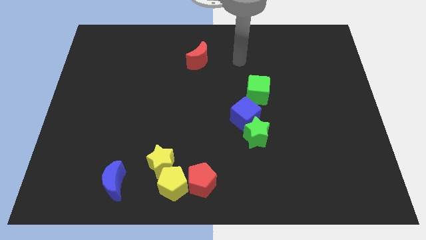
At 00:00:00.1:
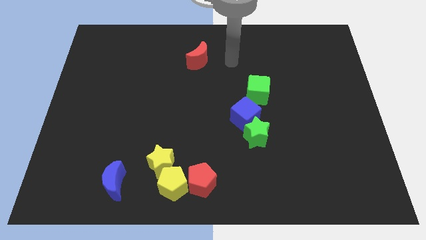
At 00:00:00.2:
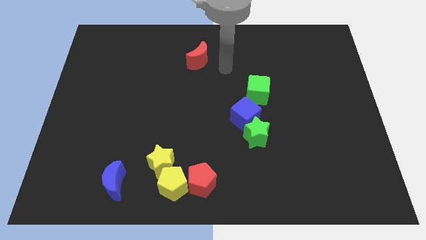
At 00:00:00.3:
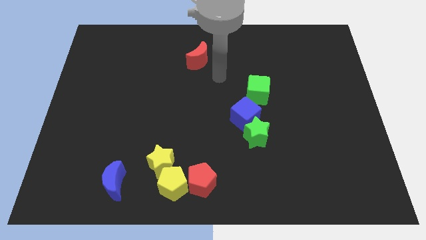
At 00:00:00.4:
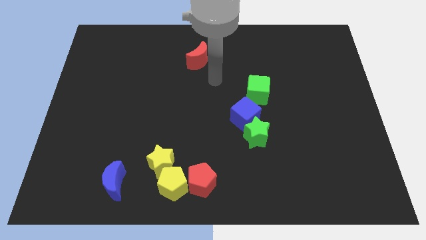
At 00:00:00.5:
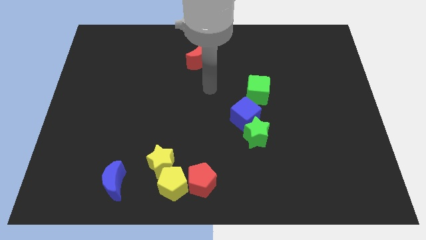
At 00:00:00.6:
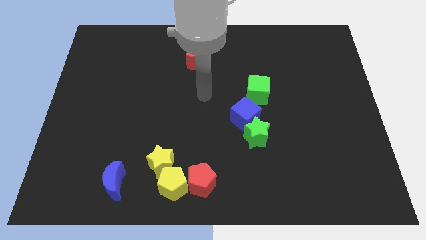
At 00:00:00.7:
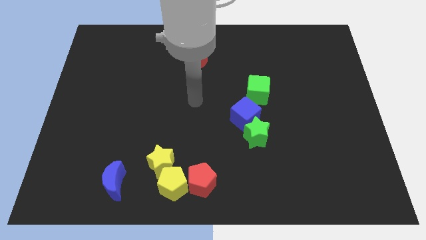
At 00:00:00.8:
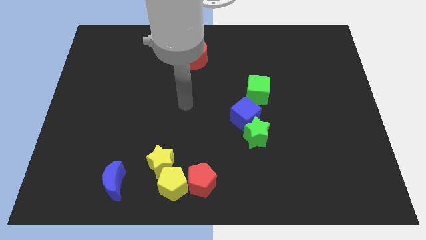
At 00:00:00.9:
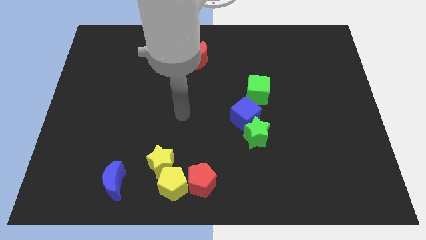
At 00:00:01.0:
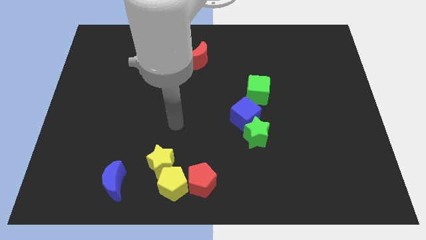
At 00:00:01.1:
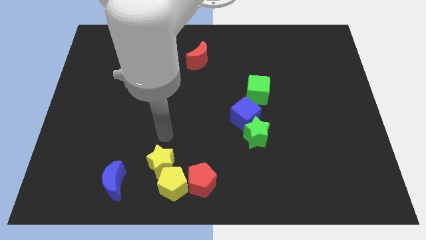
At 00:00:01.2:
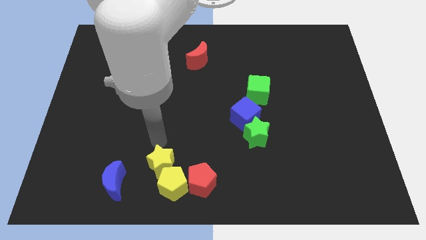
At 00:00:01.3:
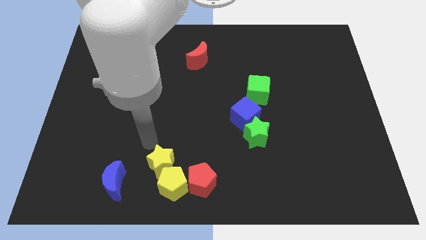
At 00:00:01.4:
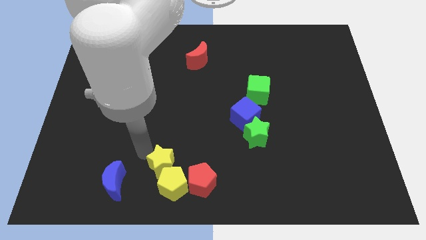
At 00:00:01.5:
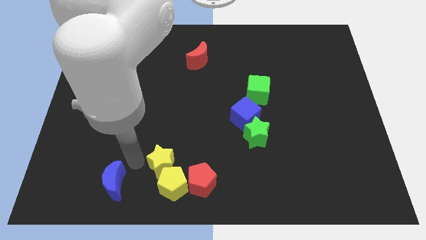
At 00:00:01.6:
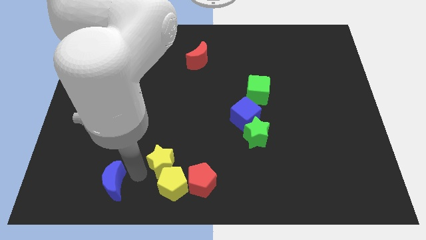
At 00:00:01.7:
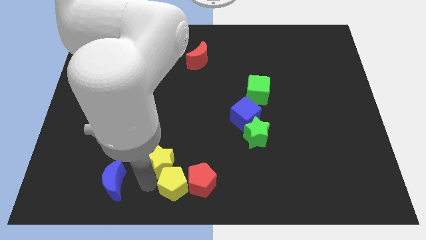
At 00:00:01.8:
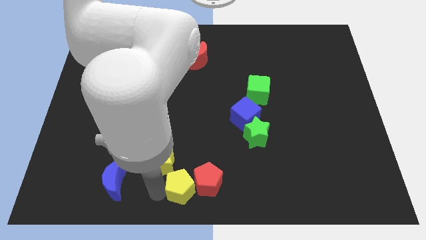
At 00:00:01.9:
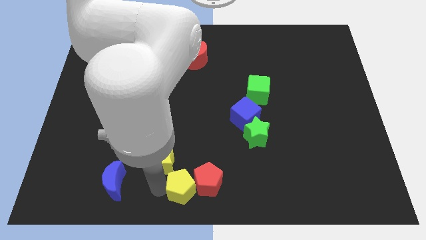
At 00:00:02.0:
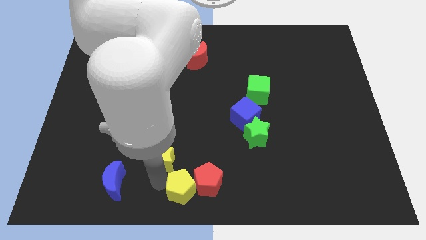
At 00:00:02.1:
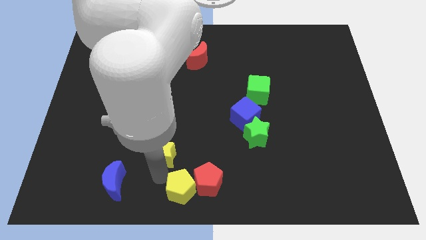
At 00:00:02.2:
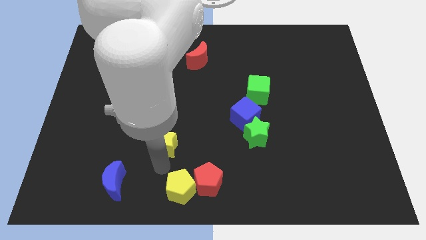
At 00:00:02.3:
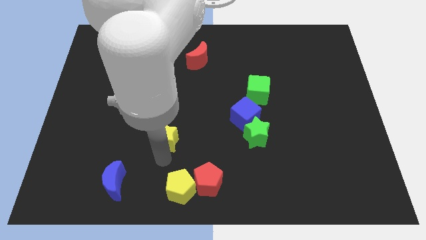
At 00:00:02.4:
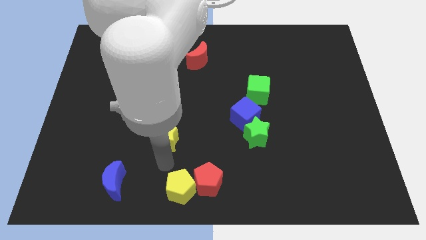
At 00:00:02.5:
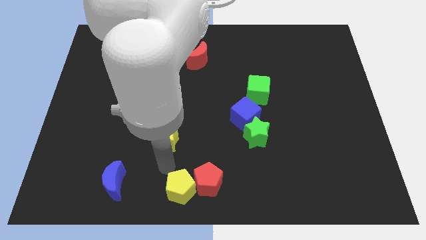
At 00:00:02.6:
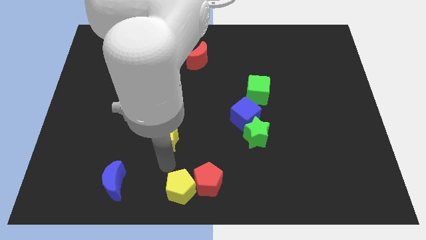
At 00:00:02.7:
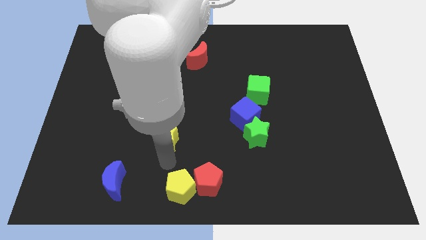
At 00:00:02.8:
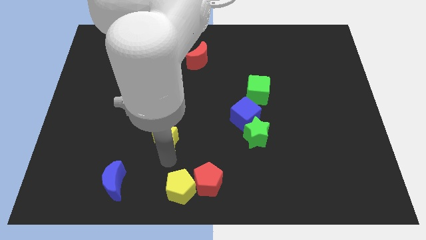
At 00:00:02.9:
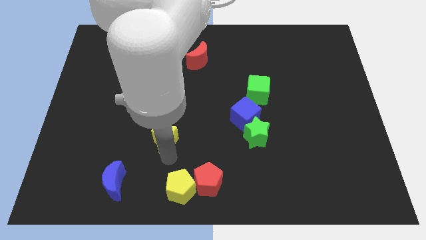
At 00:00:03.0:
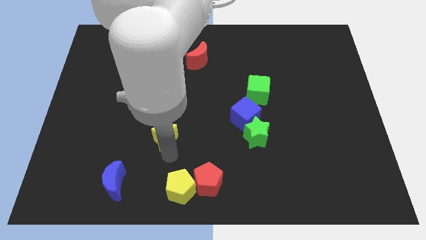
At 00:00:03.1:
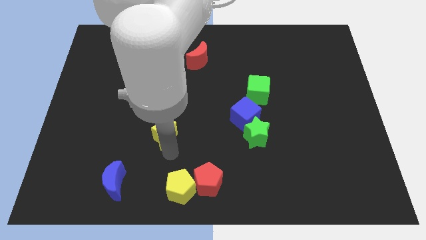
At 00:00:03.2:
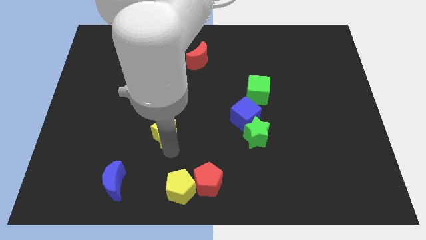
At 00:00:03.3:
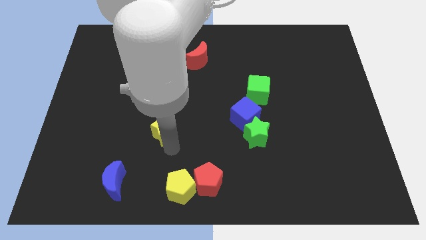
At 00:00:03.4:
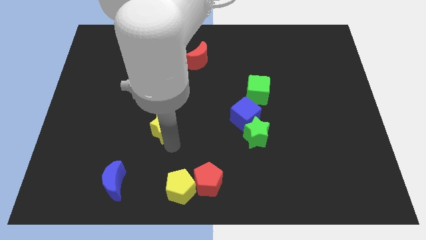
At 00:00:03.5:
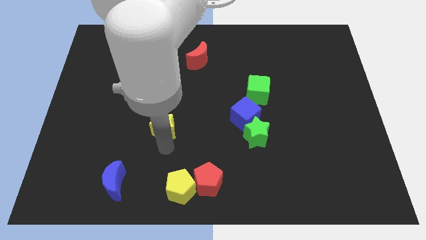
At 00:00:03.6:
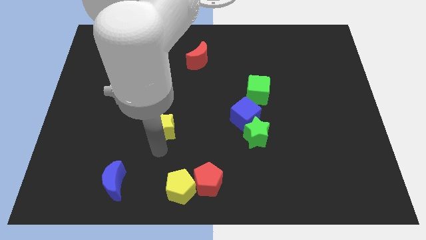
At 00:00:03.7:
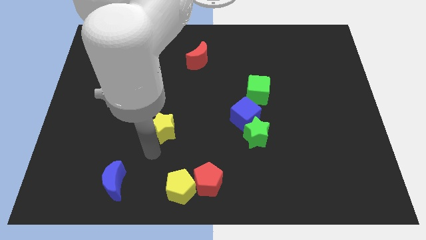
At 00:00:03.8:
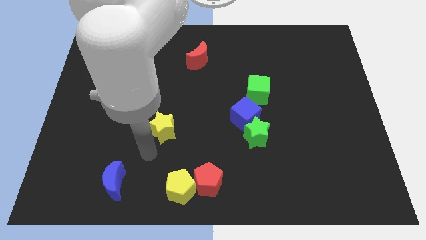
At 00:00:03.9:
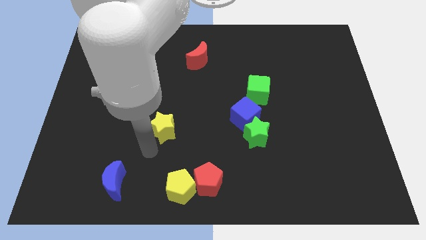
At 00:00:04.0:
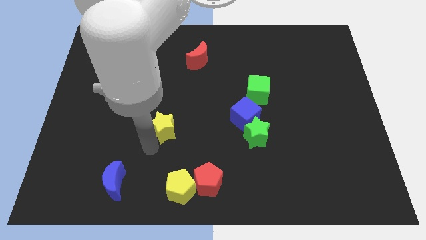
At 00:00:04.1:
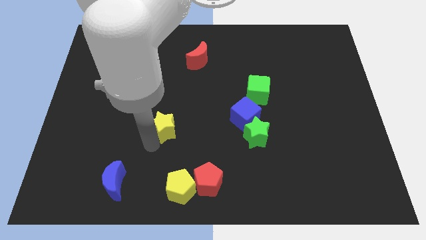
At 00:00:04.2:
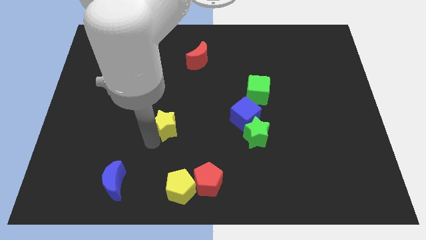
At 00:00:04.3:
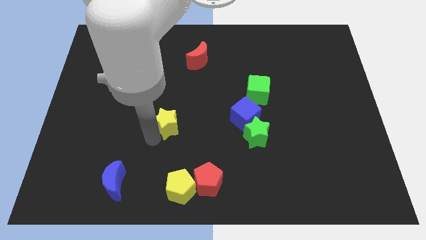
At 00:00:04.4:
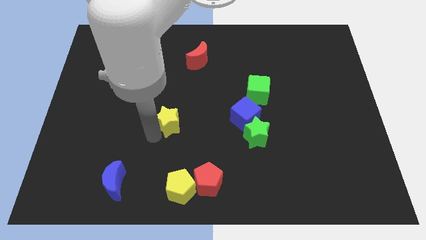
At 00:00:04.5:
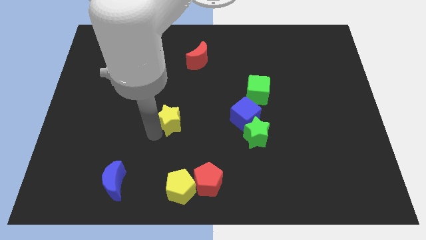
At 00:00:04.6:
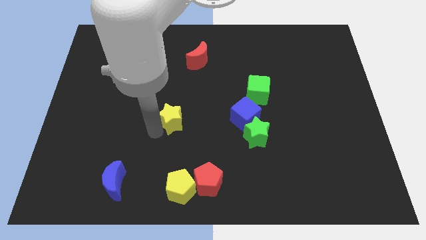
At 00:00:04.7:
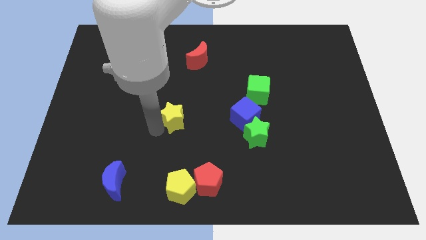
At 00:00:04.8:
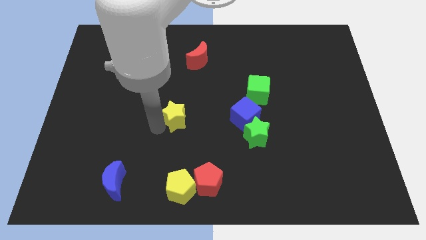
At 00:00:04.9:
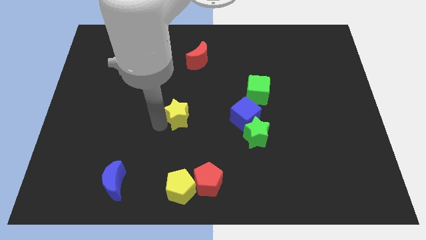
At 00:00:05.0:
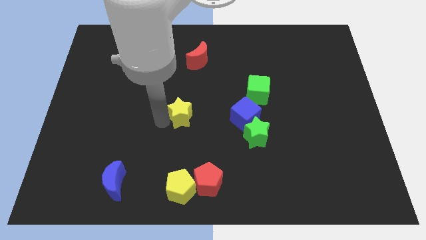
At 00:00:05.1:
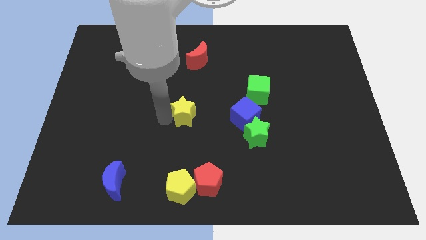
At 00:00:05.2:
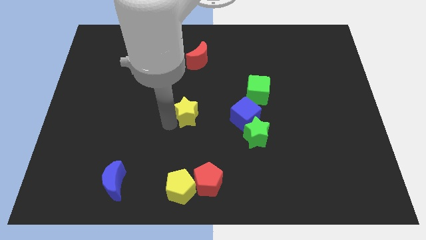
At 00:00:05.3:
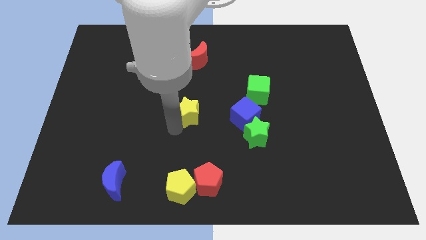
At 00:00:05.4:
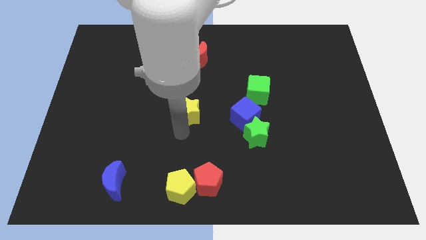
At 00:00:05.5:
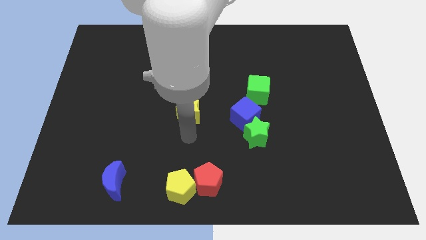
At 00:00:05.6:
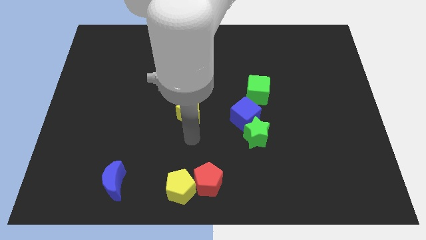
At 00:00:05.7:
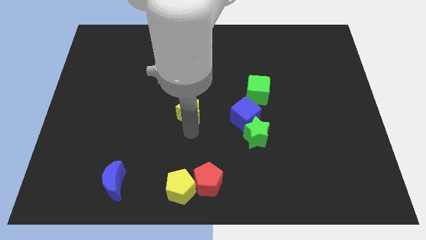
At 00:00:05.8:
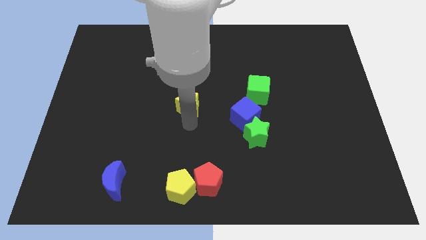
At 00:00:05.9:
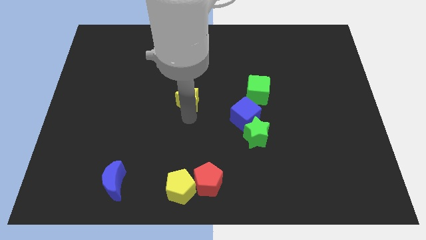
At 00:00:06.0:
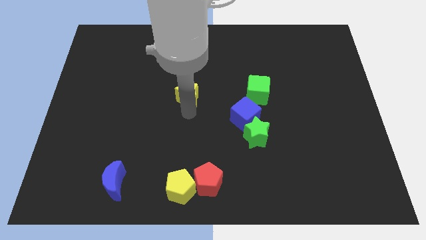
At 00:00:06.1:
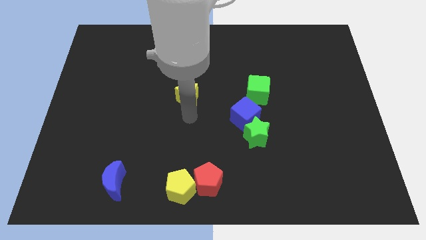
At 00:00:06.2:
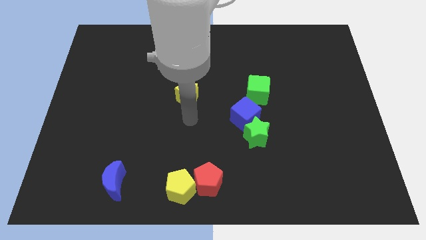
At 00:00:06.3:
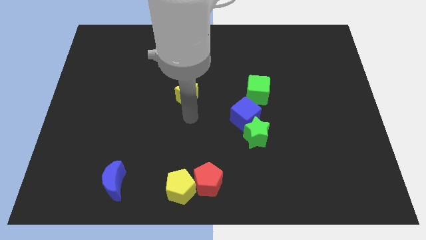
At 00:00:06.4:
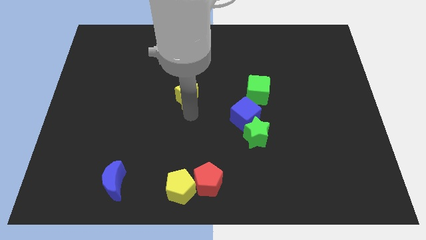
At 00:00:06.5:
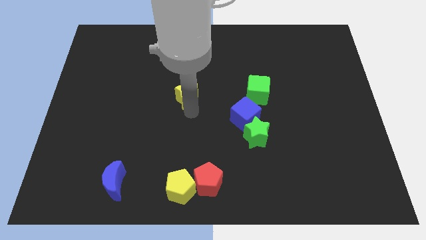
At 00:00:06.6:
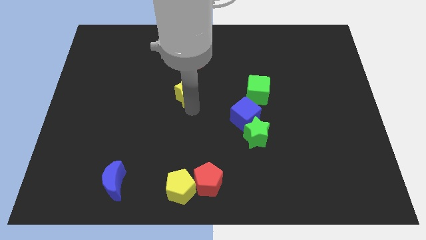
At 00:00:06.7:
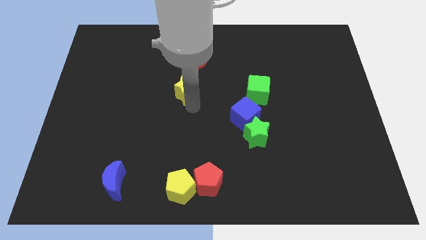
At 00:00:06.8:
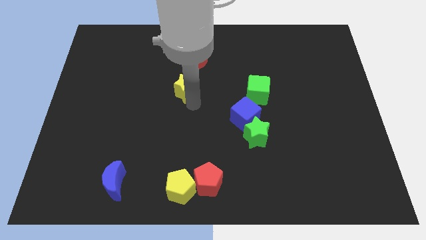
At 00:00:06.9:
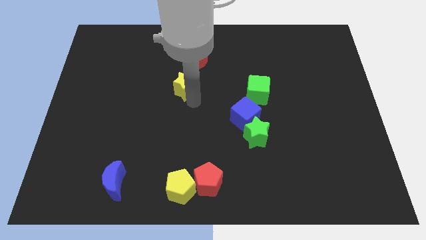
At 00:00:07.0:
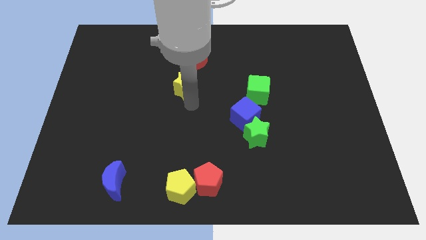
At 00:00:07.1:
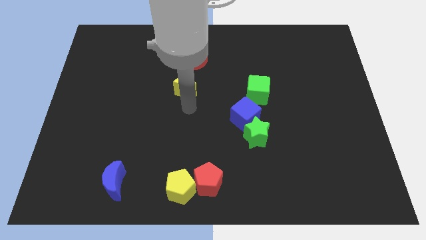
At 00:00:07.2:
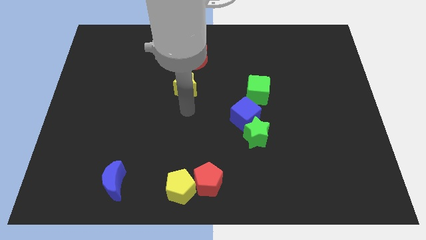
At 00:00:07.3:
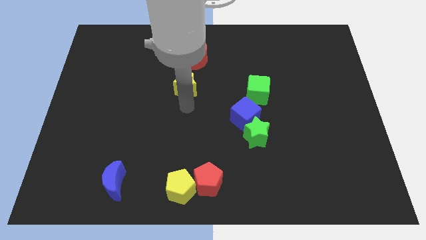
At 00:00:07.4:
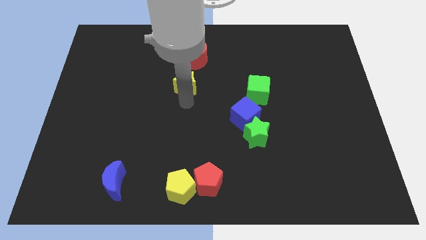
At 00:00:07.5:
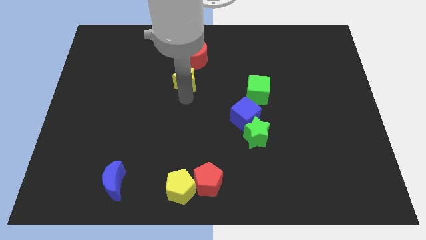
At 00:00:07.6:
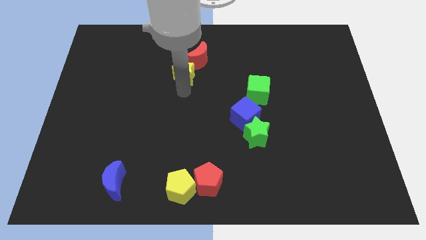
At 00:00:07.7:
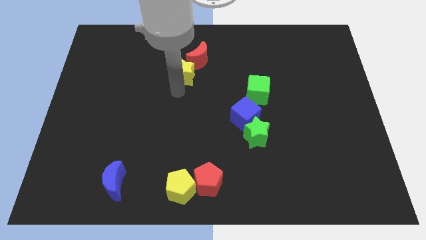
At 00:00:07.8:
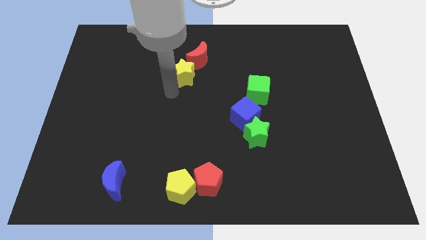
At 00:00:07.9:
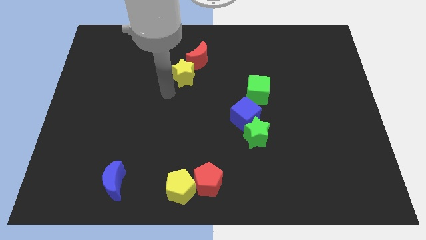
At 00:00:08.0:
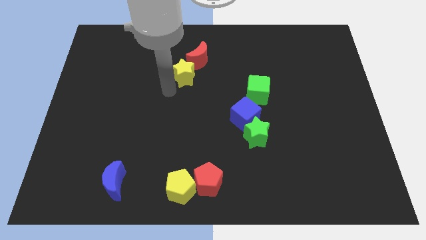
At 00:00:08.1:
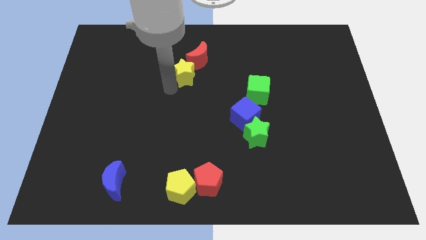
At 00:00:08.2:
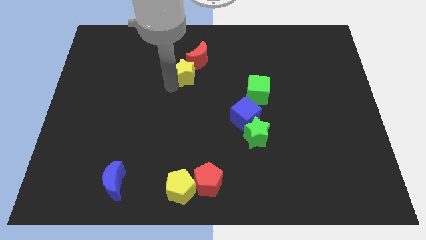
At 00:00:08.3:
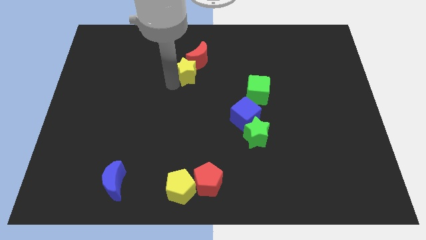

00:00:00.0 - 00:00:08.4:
push the yellow star towards the red moon
